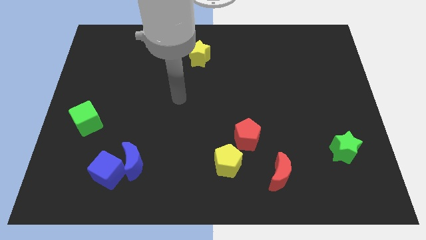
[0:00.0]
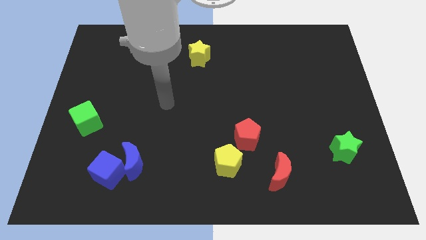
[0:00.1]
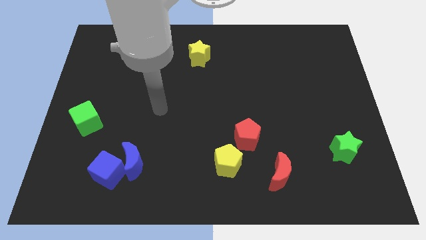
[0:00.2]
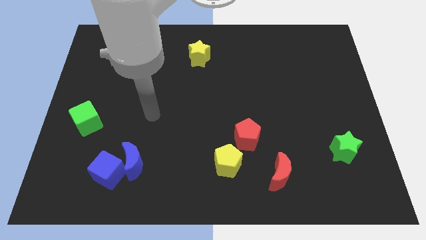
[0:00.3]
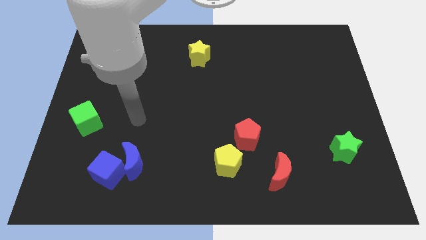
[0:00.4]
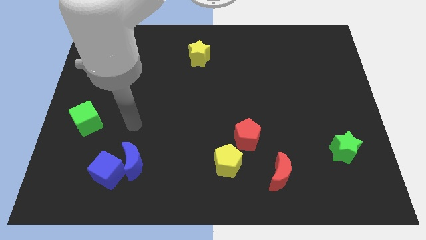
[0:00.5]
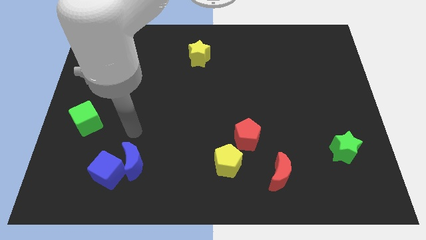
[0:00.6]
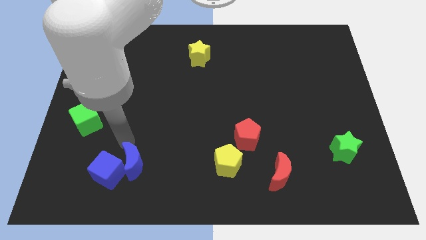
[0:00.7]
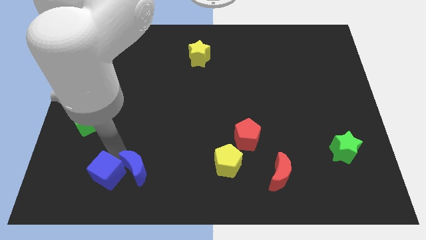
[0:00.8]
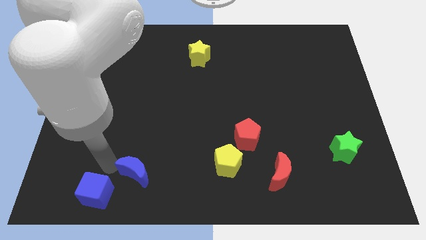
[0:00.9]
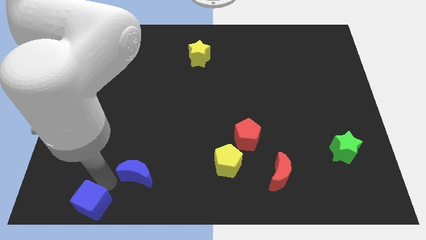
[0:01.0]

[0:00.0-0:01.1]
pull the blue moon apart from the blue cube

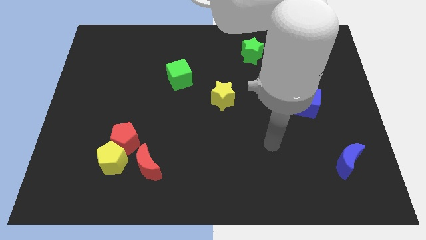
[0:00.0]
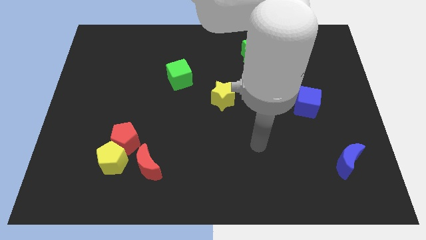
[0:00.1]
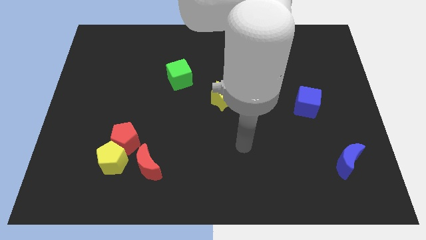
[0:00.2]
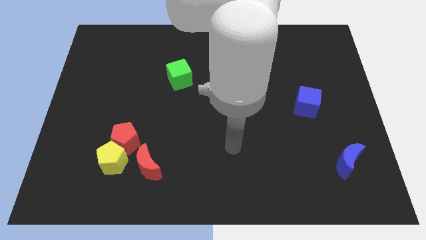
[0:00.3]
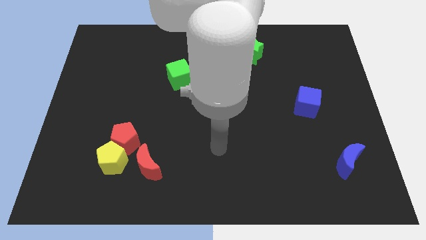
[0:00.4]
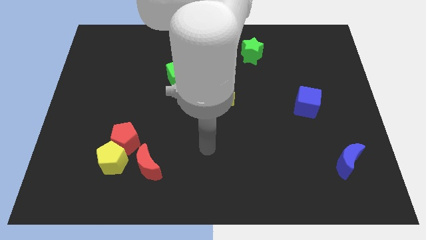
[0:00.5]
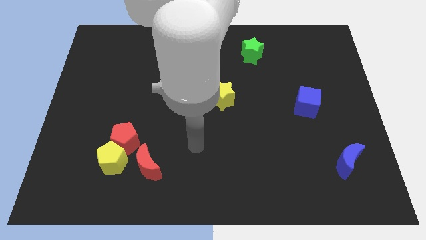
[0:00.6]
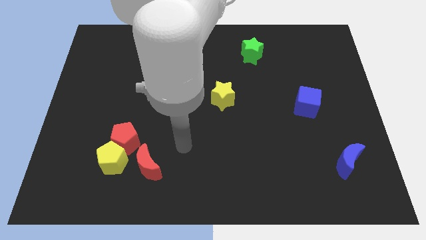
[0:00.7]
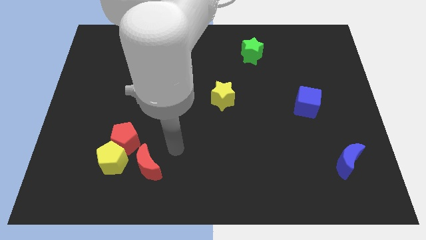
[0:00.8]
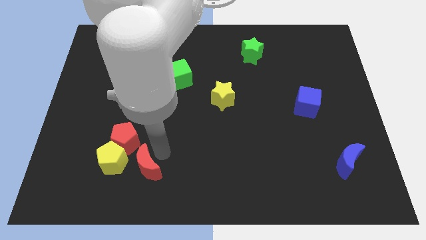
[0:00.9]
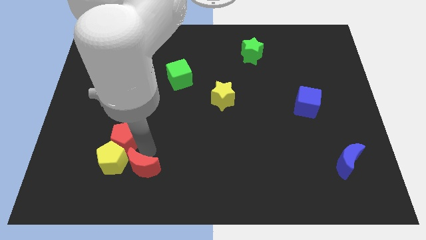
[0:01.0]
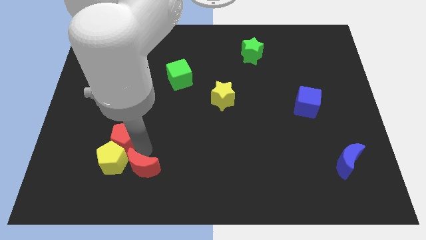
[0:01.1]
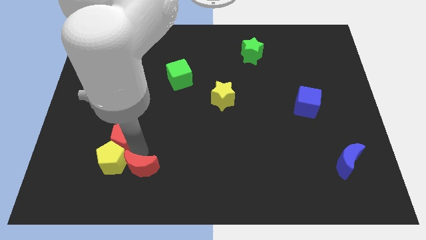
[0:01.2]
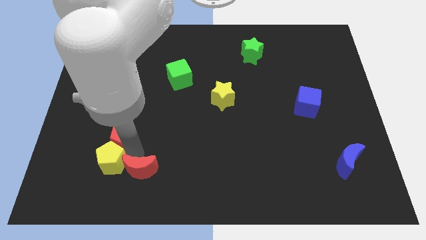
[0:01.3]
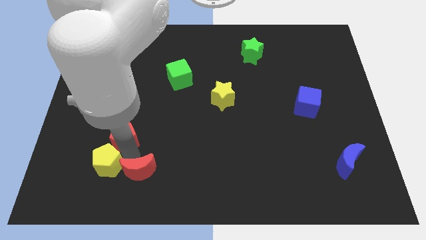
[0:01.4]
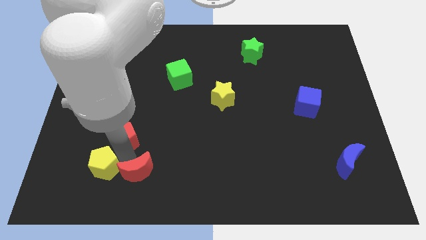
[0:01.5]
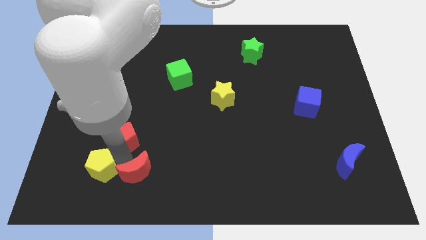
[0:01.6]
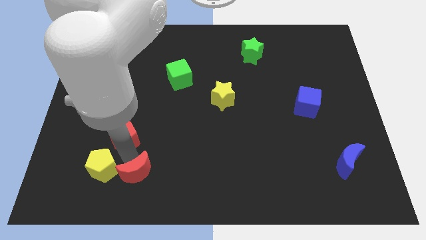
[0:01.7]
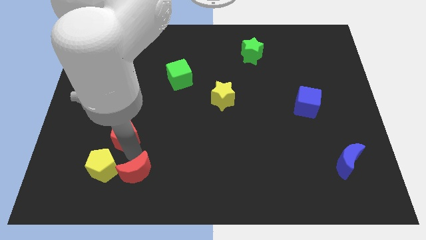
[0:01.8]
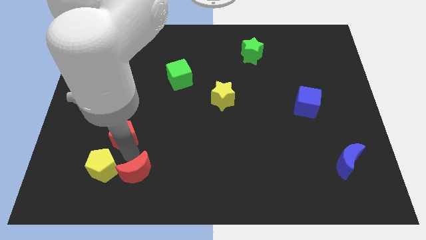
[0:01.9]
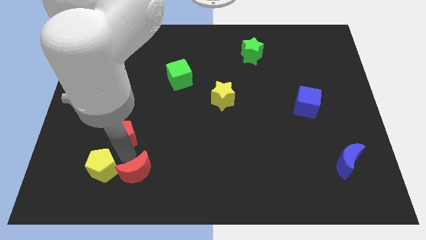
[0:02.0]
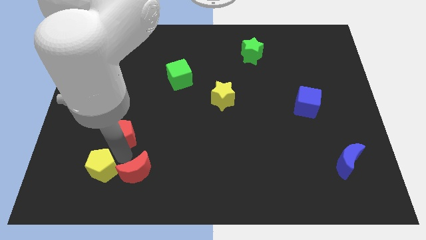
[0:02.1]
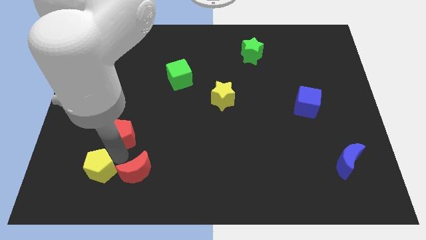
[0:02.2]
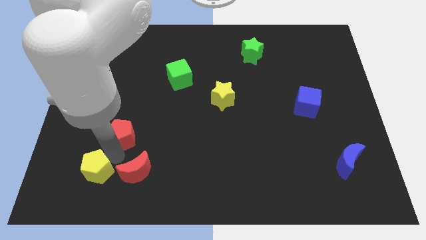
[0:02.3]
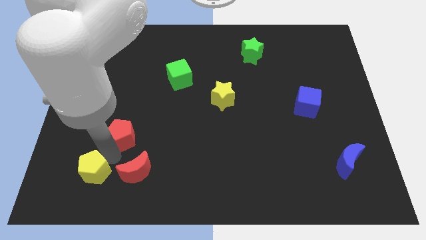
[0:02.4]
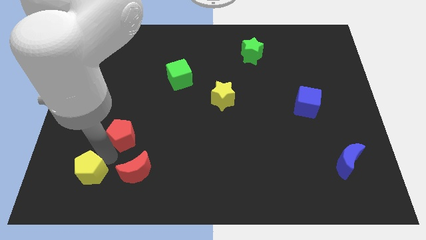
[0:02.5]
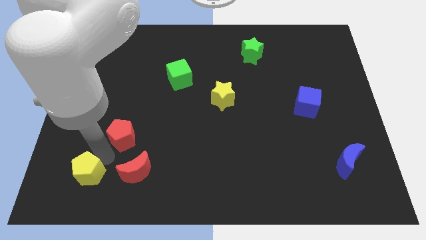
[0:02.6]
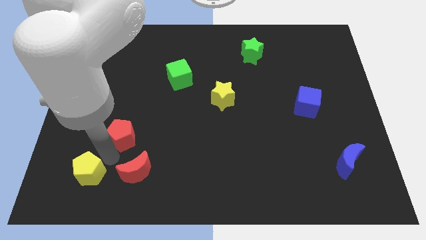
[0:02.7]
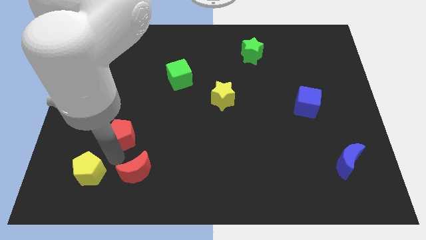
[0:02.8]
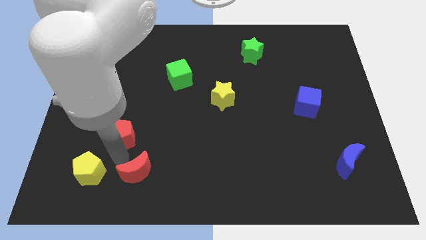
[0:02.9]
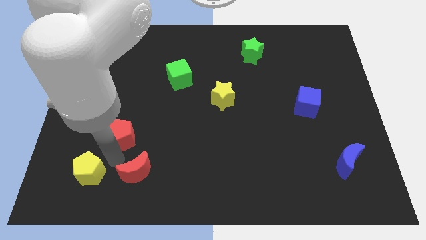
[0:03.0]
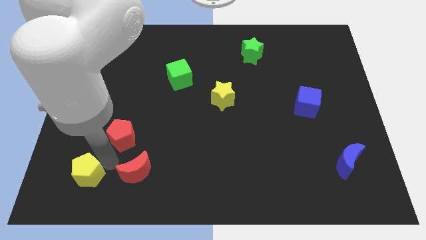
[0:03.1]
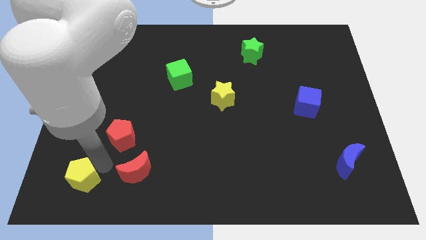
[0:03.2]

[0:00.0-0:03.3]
pull the yellow pentagon apart from the red pentagon and red moon

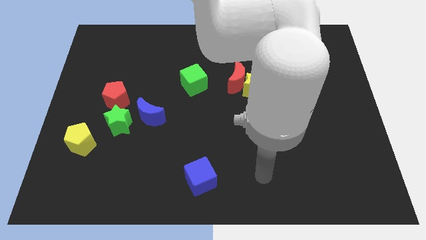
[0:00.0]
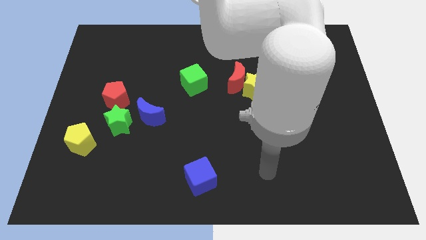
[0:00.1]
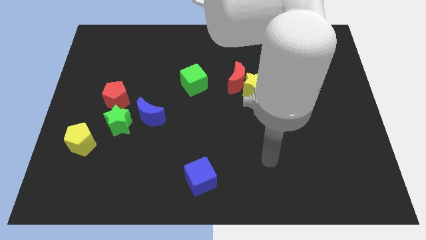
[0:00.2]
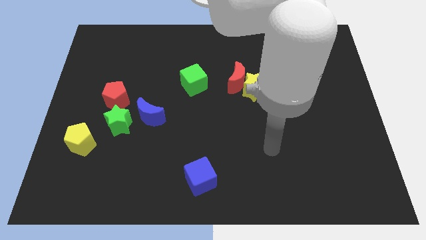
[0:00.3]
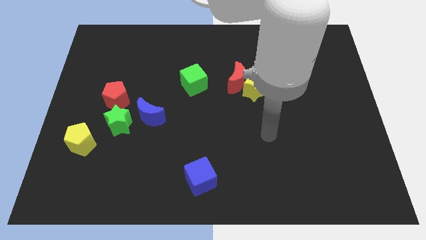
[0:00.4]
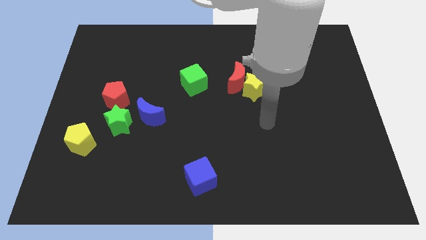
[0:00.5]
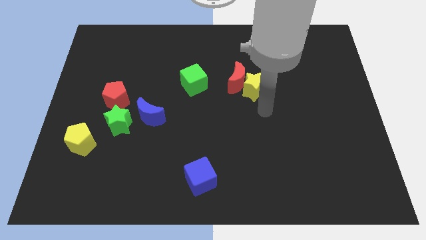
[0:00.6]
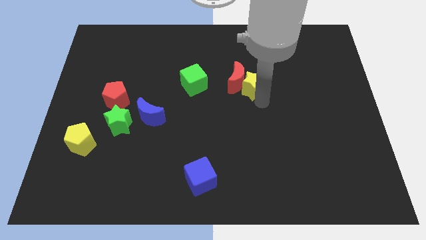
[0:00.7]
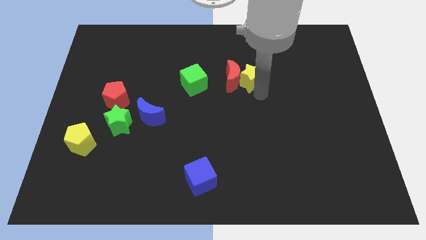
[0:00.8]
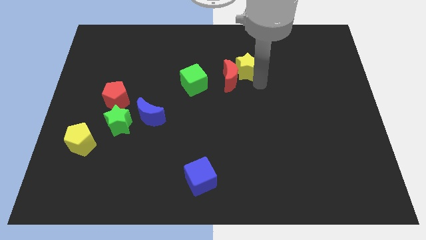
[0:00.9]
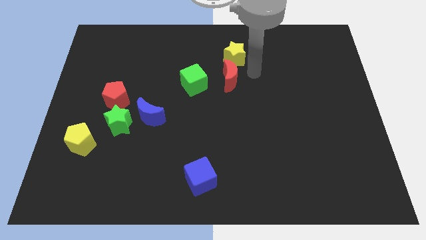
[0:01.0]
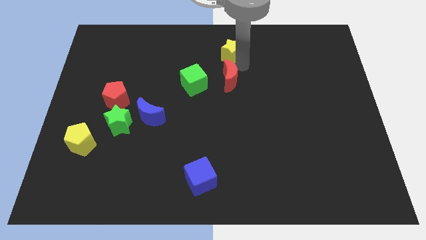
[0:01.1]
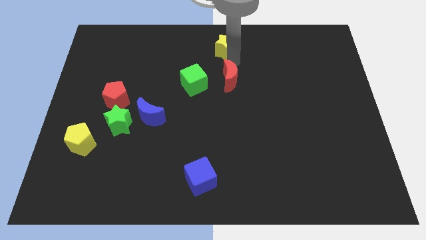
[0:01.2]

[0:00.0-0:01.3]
pull the red moon apart from the yellow star

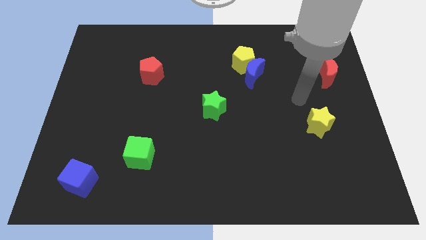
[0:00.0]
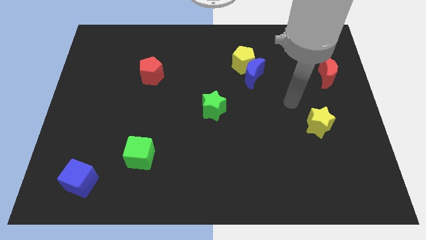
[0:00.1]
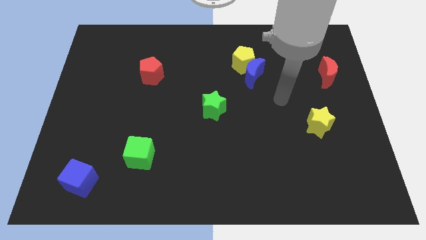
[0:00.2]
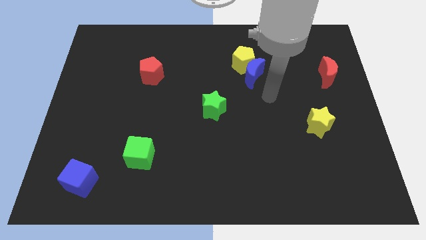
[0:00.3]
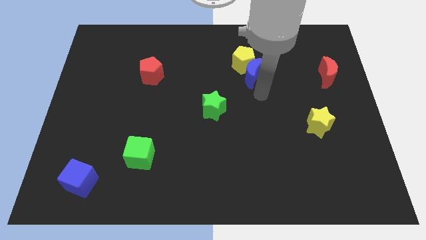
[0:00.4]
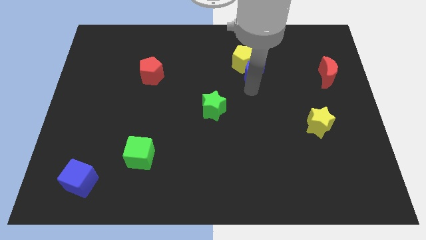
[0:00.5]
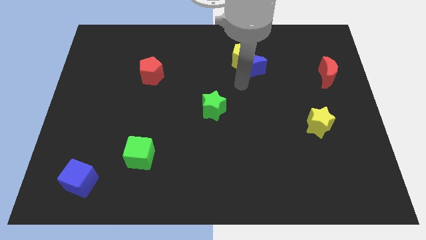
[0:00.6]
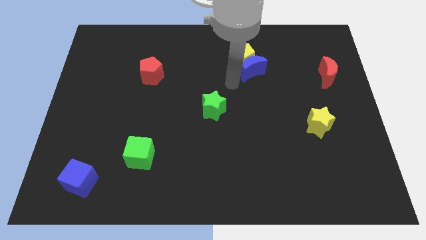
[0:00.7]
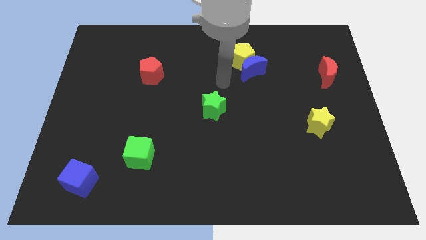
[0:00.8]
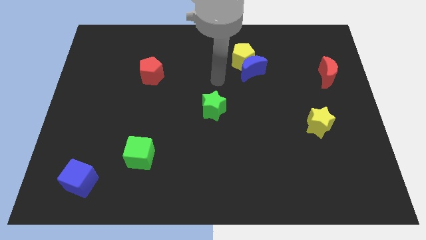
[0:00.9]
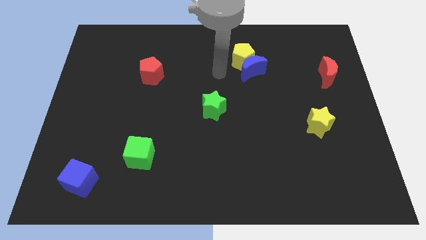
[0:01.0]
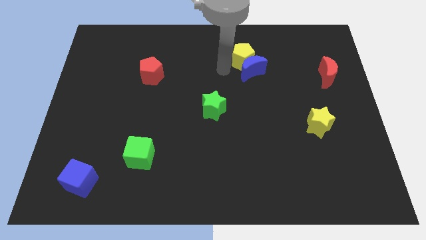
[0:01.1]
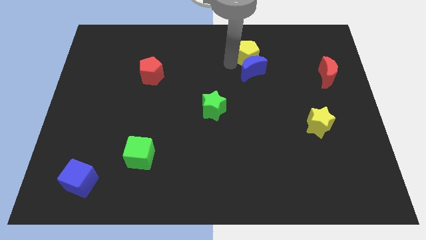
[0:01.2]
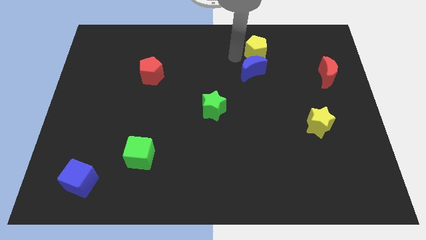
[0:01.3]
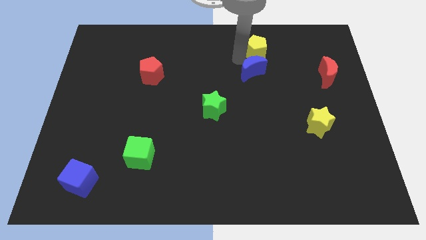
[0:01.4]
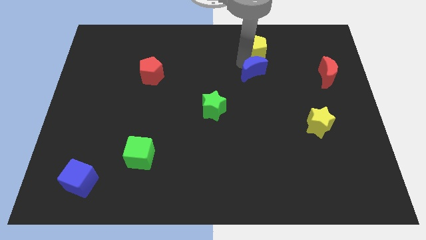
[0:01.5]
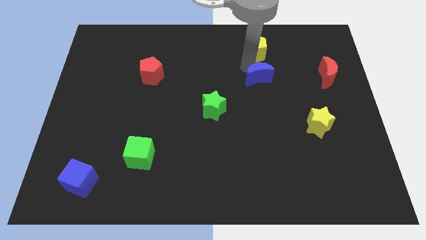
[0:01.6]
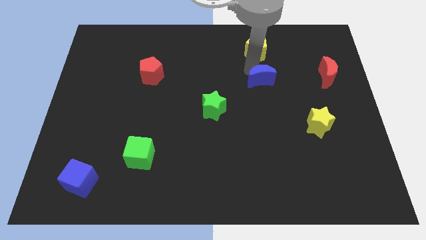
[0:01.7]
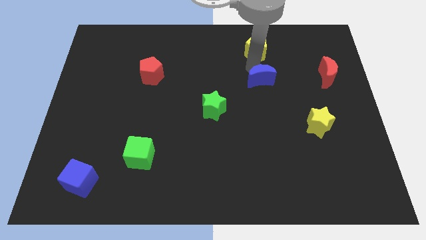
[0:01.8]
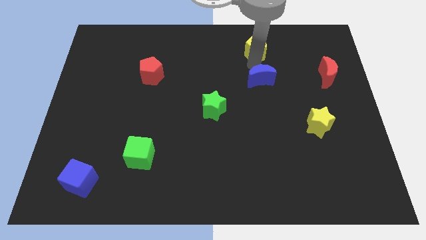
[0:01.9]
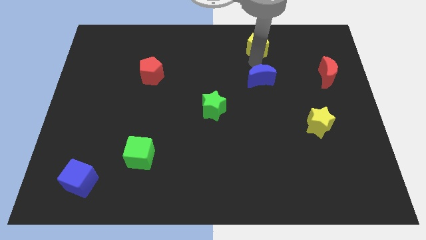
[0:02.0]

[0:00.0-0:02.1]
move the blue moon away from the yellow pentagon

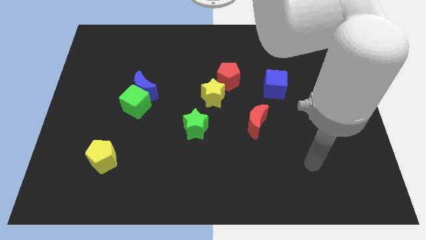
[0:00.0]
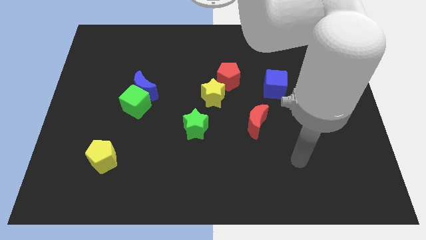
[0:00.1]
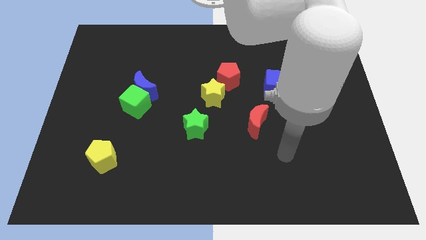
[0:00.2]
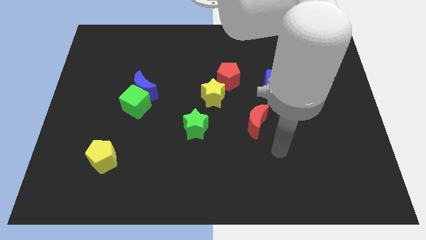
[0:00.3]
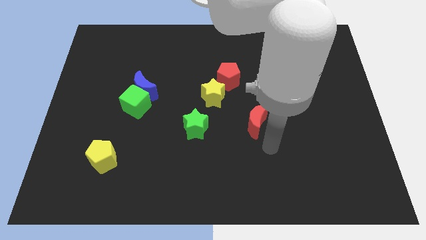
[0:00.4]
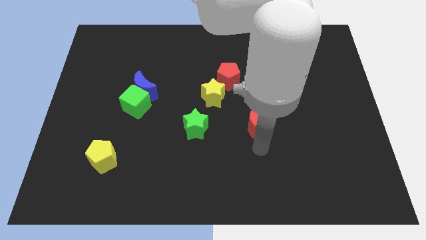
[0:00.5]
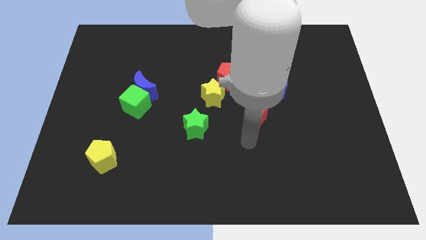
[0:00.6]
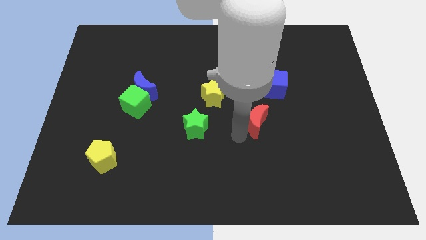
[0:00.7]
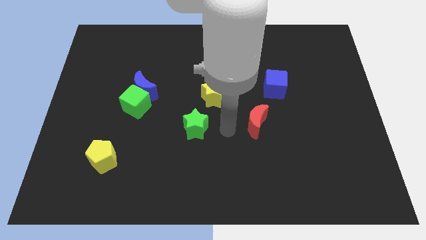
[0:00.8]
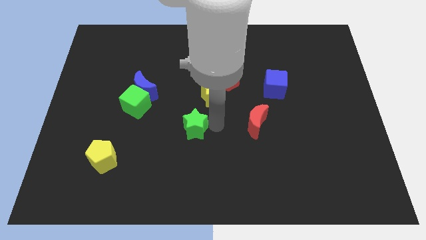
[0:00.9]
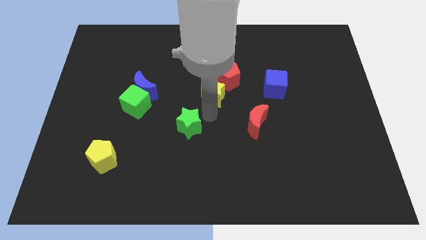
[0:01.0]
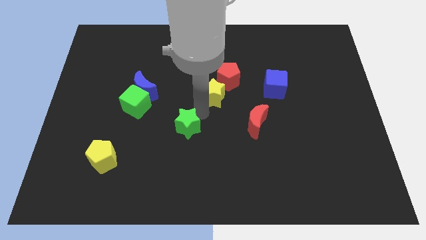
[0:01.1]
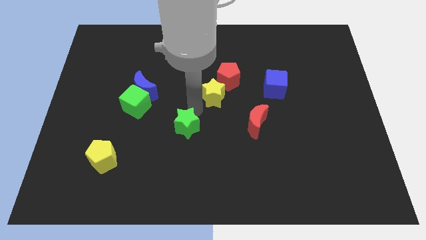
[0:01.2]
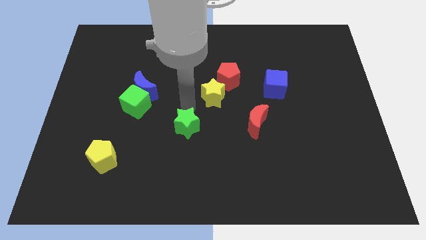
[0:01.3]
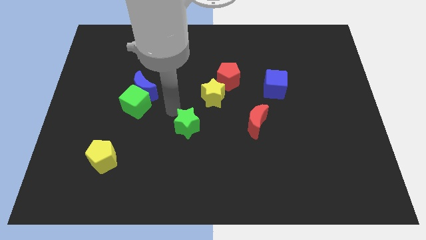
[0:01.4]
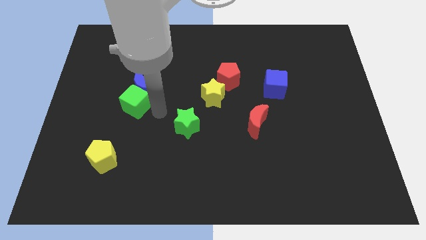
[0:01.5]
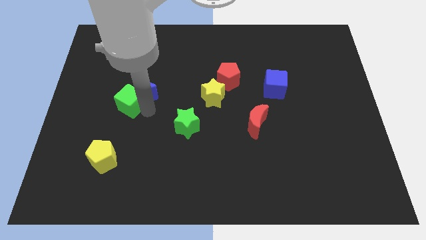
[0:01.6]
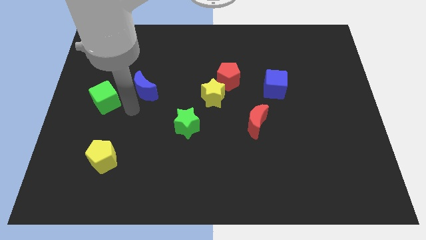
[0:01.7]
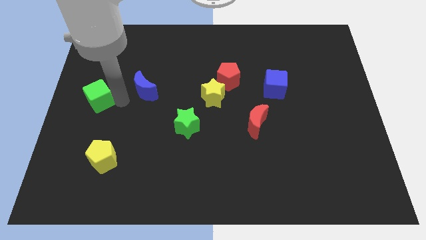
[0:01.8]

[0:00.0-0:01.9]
move the blue moon away from the green cube
